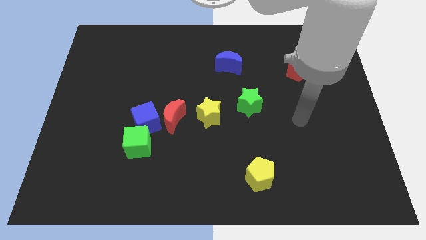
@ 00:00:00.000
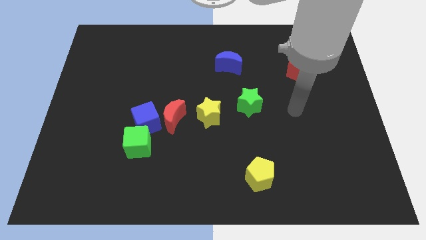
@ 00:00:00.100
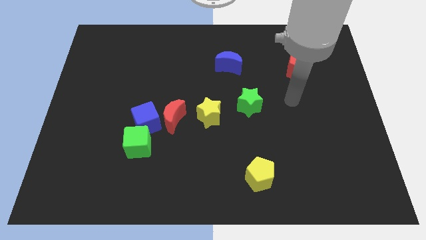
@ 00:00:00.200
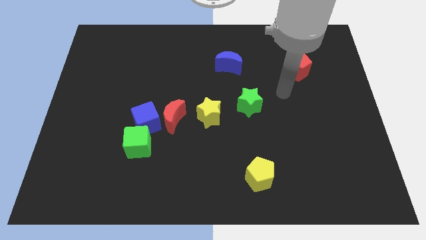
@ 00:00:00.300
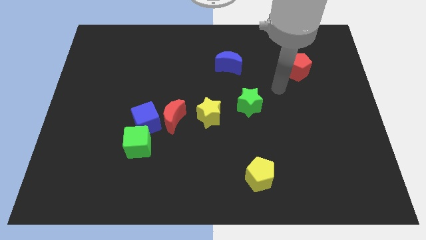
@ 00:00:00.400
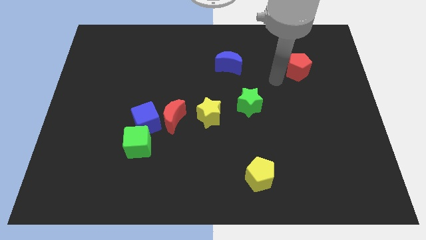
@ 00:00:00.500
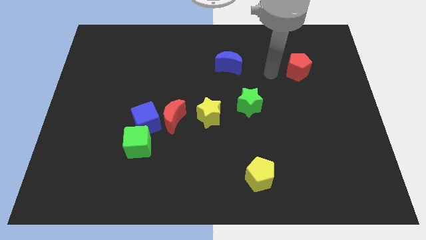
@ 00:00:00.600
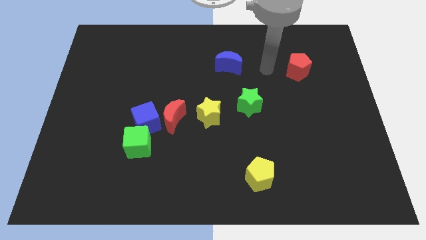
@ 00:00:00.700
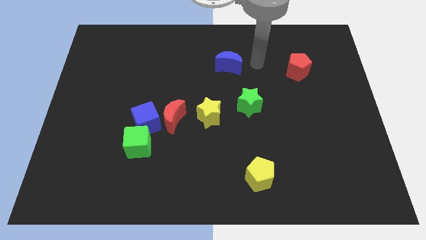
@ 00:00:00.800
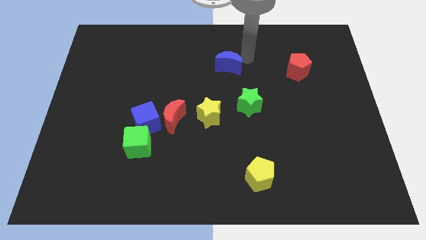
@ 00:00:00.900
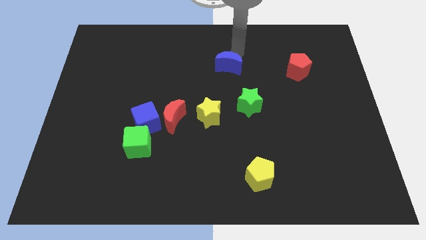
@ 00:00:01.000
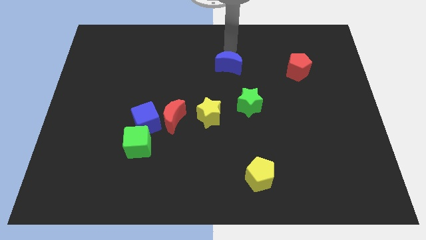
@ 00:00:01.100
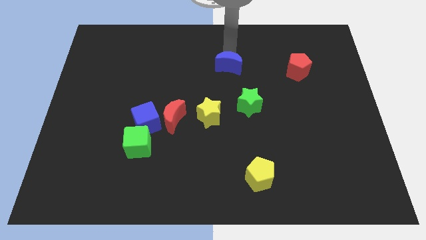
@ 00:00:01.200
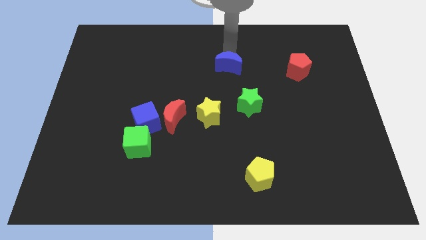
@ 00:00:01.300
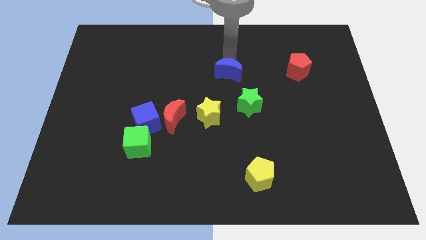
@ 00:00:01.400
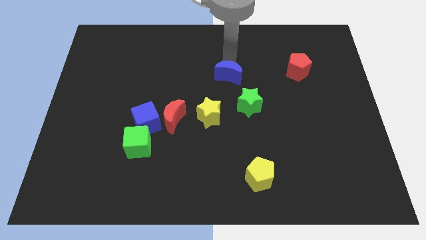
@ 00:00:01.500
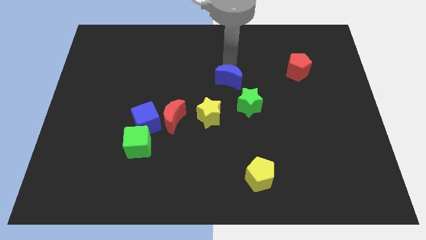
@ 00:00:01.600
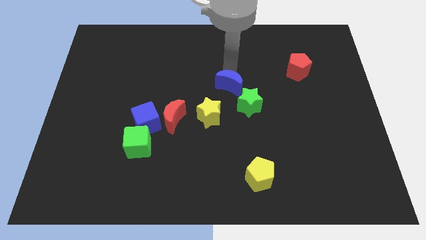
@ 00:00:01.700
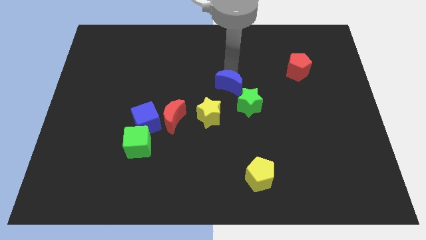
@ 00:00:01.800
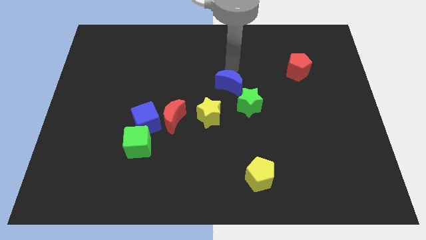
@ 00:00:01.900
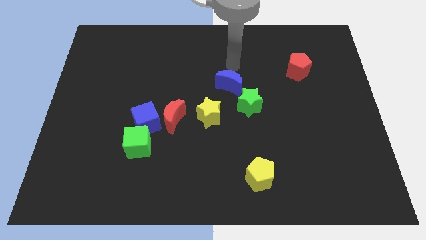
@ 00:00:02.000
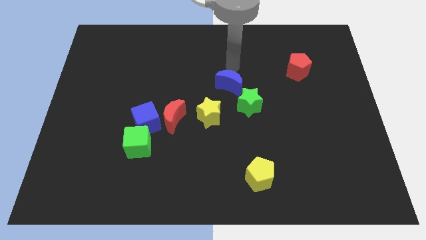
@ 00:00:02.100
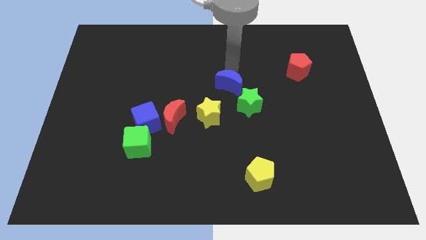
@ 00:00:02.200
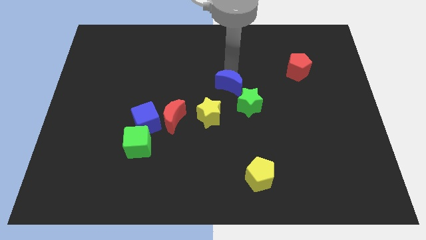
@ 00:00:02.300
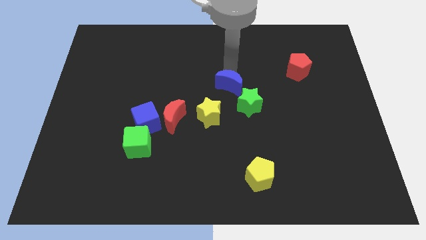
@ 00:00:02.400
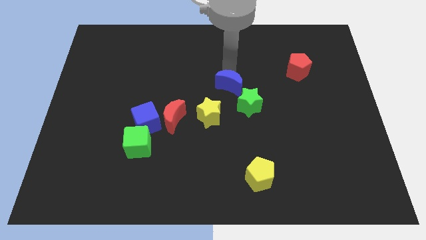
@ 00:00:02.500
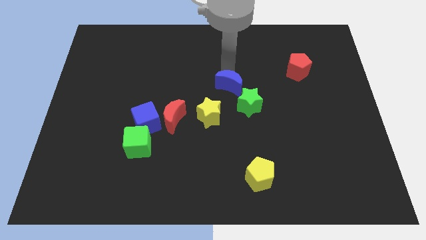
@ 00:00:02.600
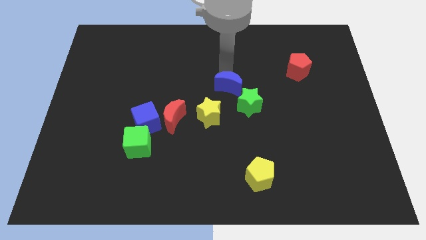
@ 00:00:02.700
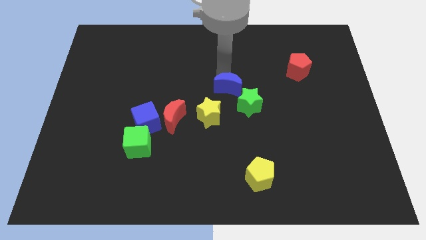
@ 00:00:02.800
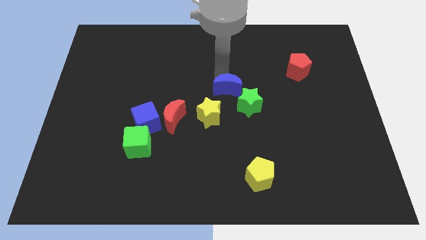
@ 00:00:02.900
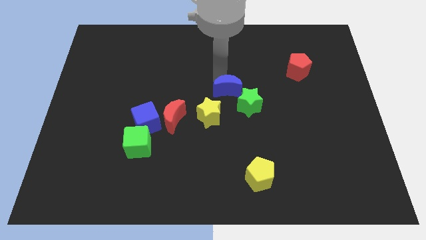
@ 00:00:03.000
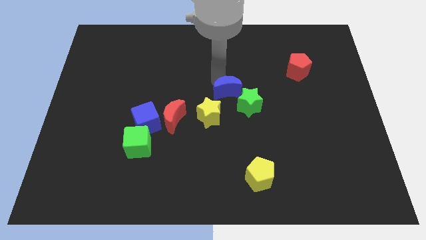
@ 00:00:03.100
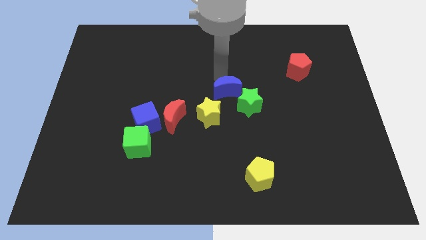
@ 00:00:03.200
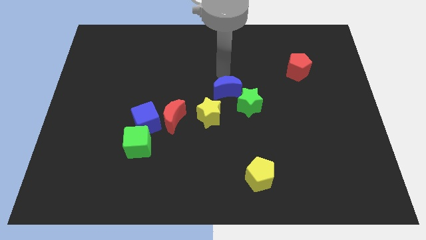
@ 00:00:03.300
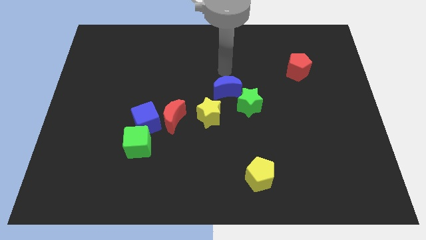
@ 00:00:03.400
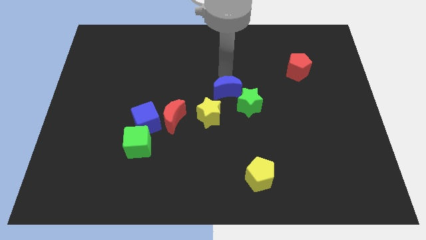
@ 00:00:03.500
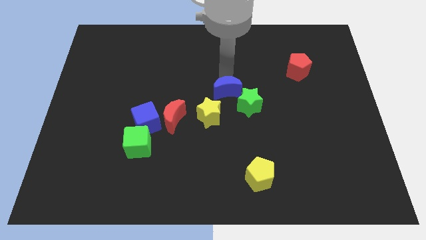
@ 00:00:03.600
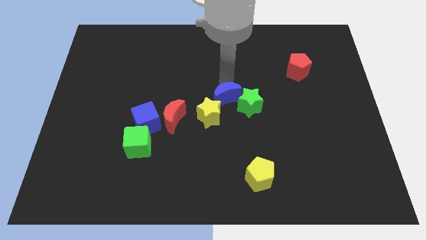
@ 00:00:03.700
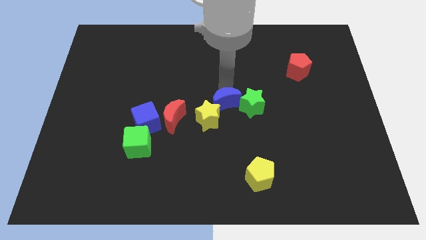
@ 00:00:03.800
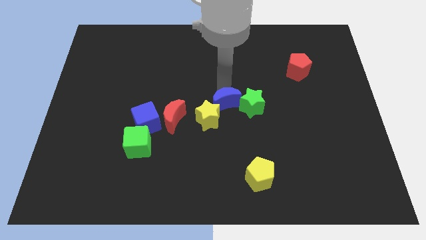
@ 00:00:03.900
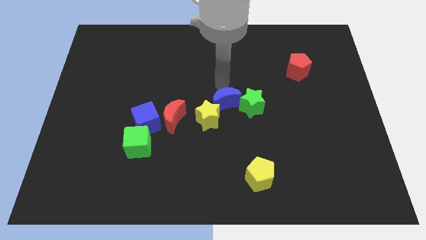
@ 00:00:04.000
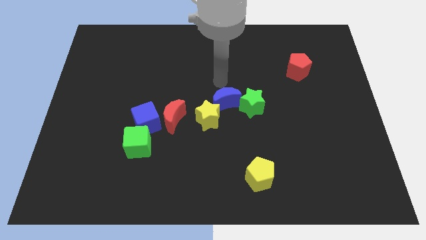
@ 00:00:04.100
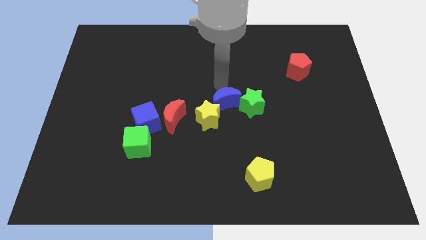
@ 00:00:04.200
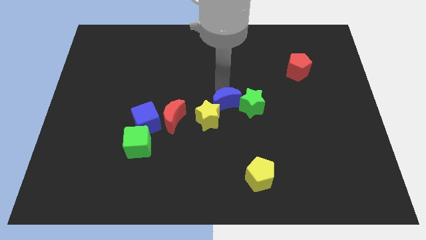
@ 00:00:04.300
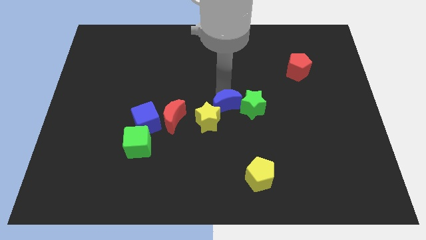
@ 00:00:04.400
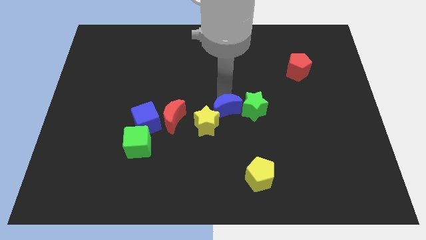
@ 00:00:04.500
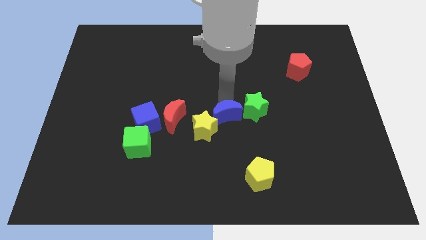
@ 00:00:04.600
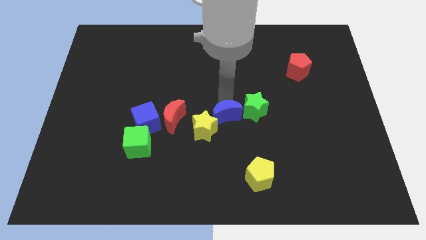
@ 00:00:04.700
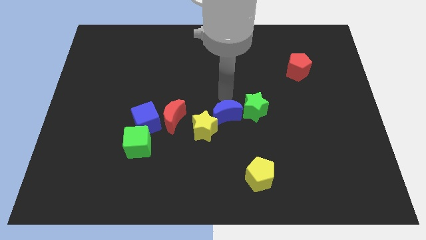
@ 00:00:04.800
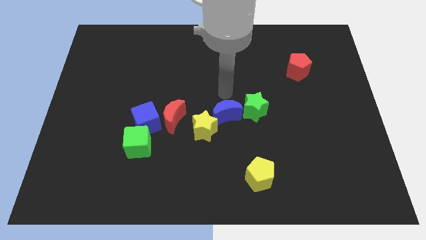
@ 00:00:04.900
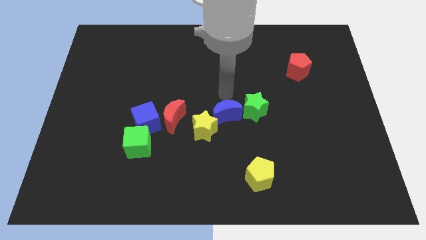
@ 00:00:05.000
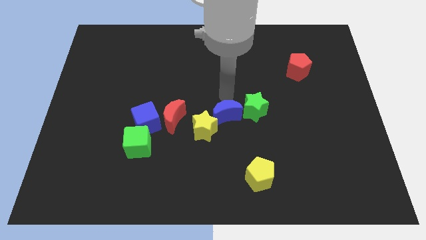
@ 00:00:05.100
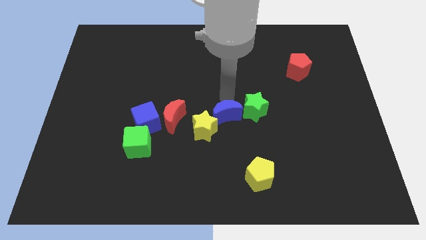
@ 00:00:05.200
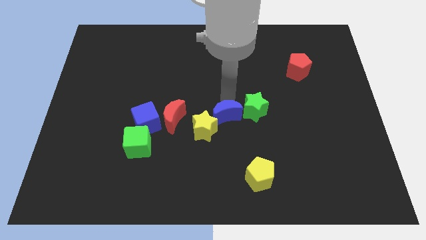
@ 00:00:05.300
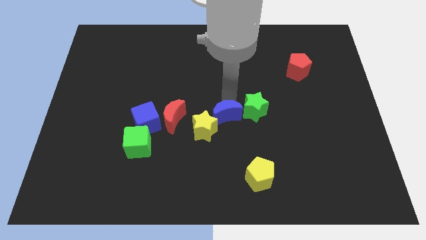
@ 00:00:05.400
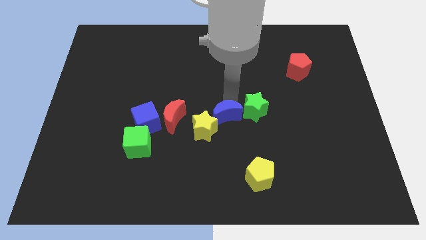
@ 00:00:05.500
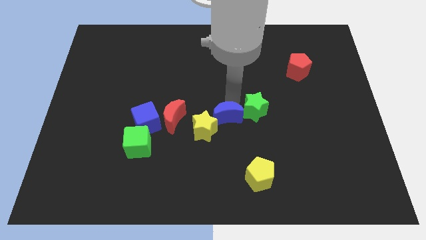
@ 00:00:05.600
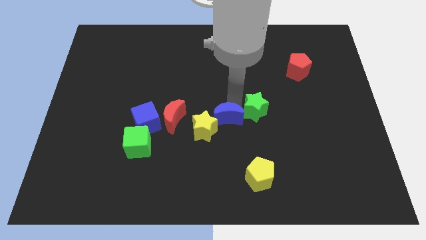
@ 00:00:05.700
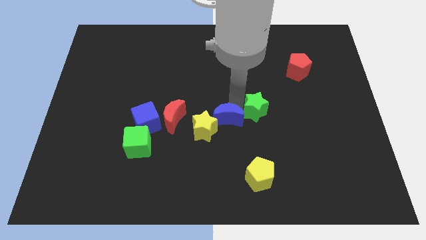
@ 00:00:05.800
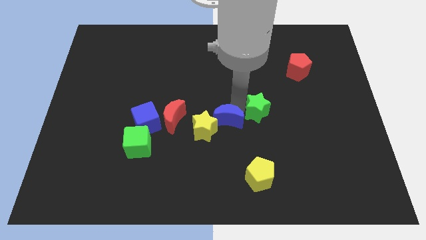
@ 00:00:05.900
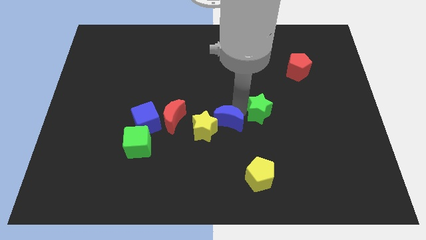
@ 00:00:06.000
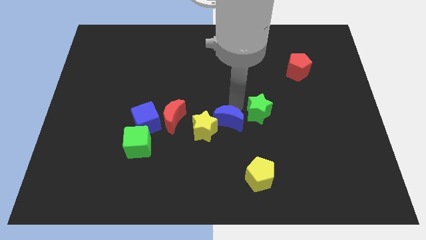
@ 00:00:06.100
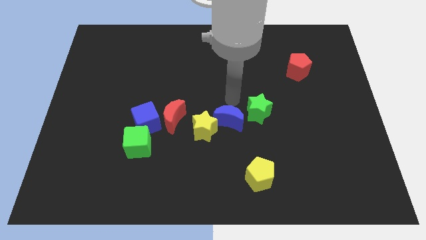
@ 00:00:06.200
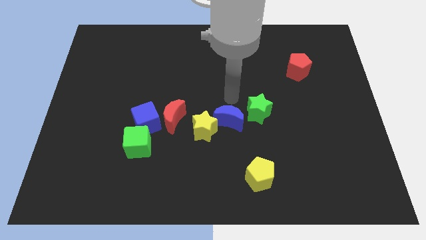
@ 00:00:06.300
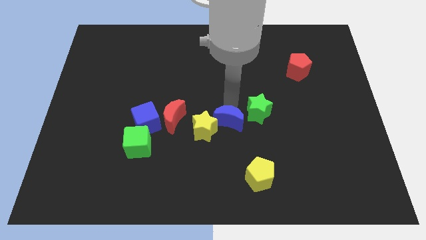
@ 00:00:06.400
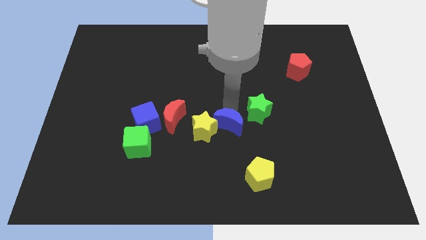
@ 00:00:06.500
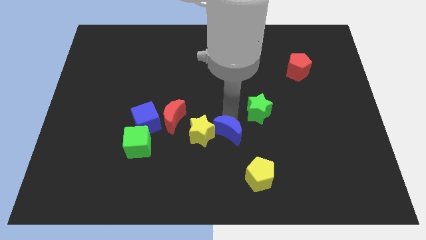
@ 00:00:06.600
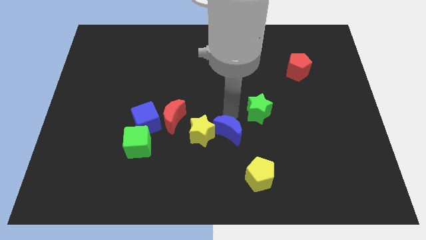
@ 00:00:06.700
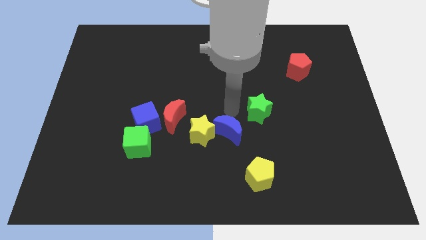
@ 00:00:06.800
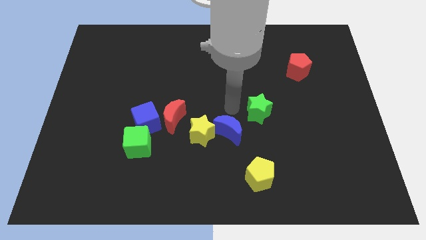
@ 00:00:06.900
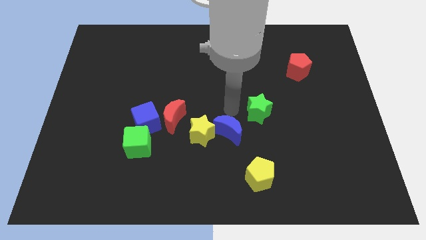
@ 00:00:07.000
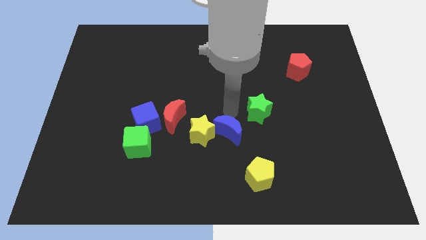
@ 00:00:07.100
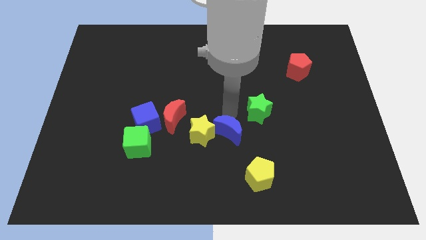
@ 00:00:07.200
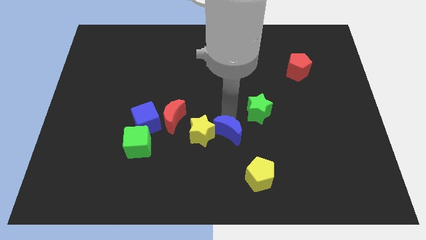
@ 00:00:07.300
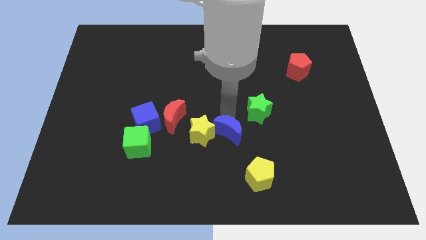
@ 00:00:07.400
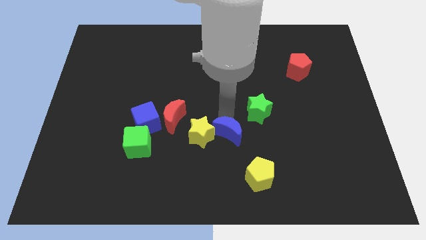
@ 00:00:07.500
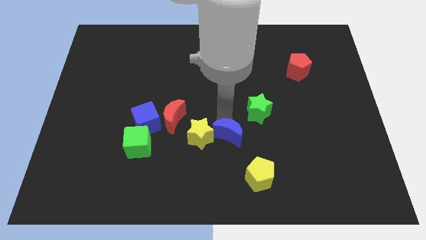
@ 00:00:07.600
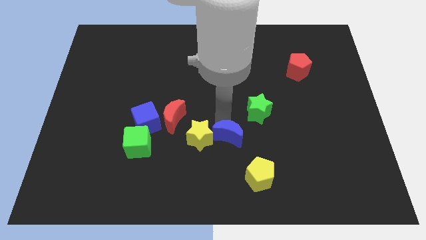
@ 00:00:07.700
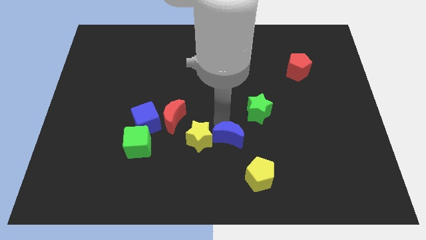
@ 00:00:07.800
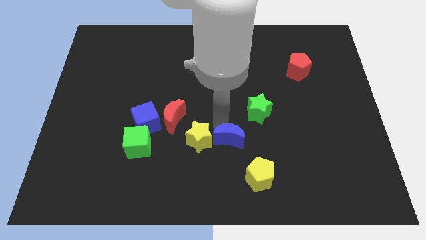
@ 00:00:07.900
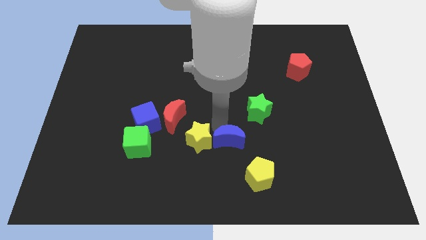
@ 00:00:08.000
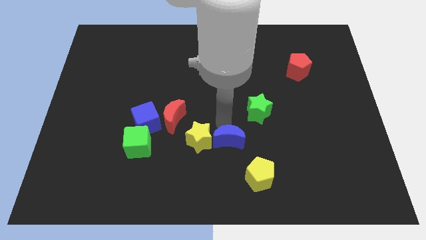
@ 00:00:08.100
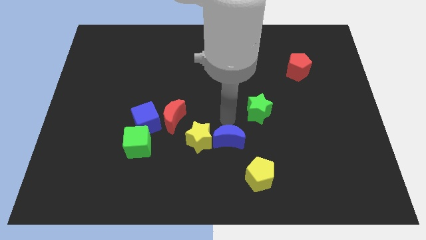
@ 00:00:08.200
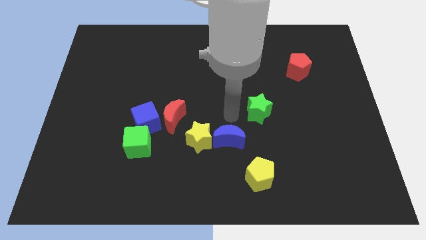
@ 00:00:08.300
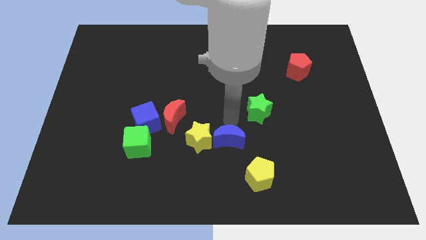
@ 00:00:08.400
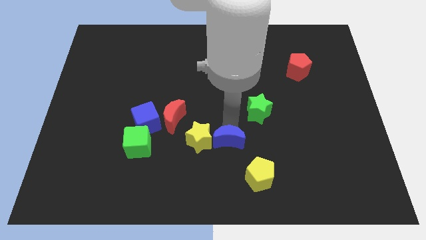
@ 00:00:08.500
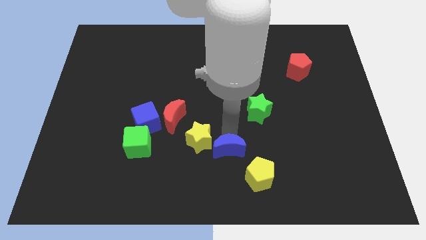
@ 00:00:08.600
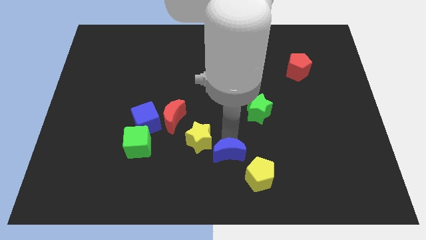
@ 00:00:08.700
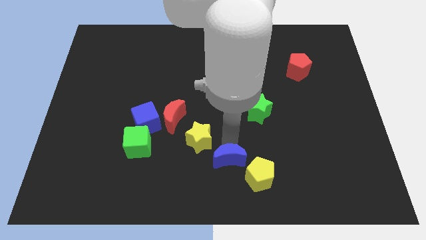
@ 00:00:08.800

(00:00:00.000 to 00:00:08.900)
slide the blue moon to the bottom
